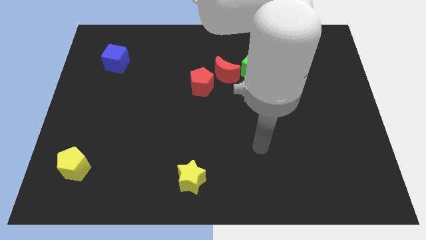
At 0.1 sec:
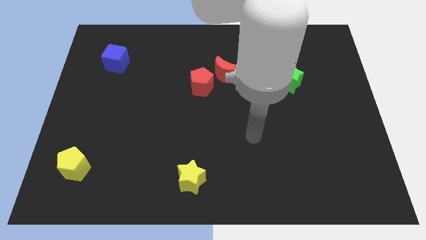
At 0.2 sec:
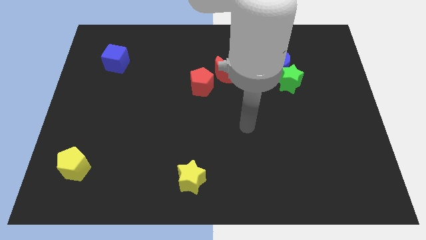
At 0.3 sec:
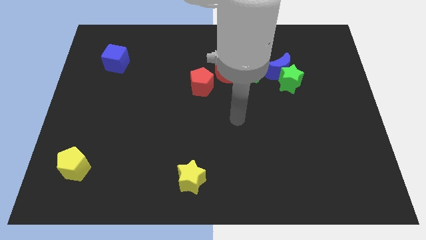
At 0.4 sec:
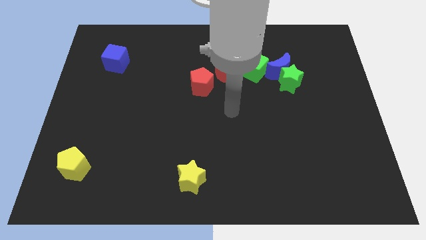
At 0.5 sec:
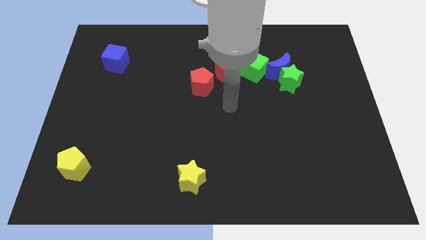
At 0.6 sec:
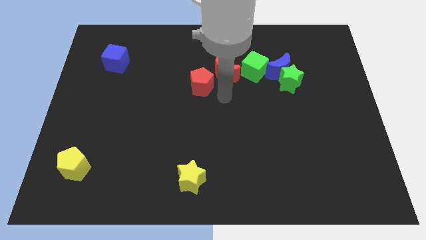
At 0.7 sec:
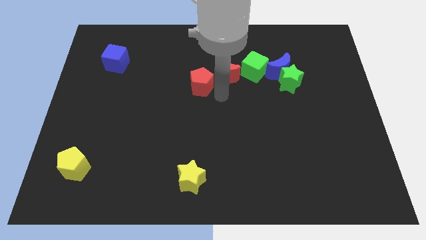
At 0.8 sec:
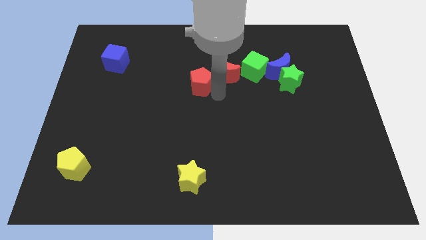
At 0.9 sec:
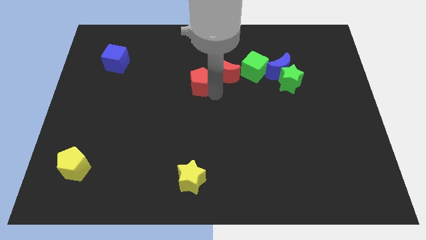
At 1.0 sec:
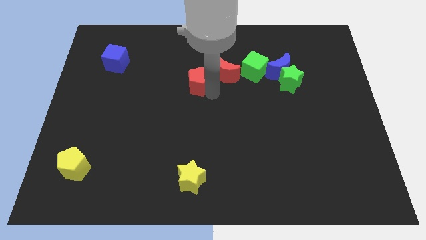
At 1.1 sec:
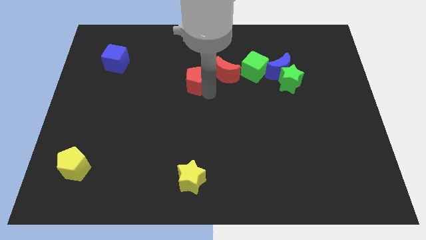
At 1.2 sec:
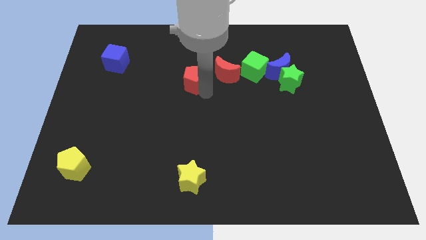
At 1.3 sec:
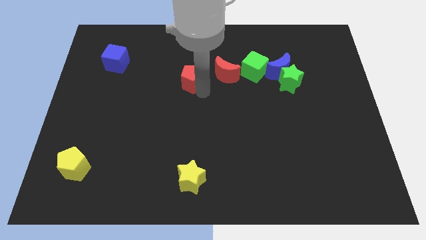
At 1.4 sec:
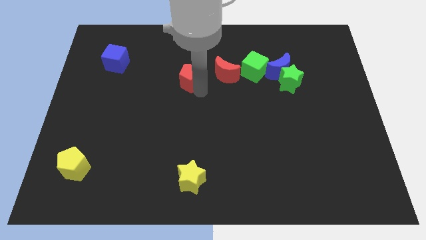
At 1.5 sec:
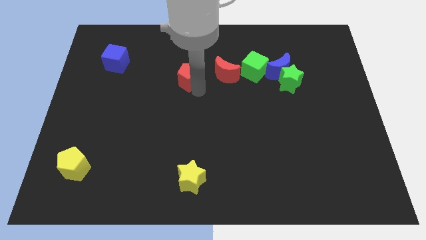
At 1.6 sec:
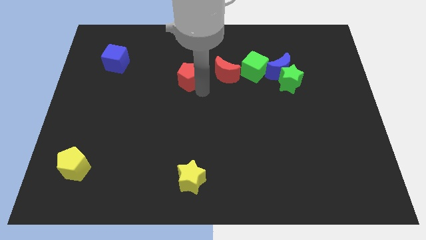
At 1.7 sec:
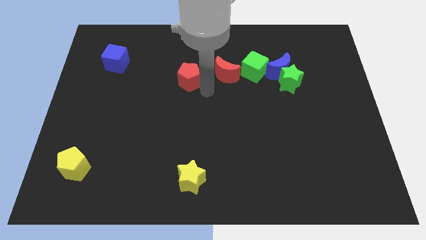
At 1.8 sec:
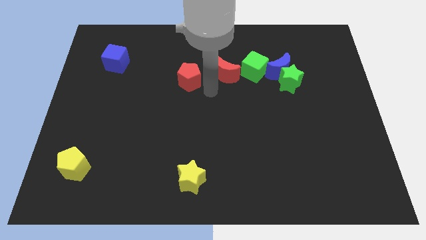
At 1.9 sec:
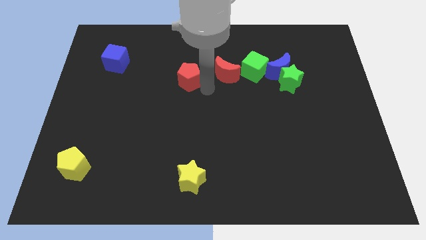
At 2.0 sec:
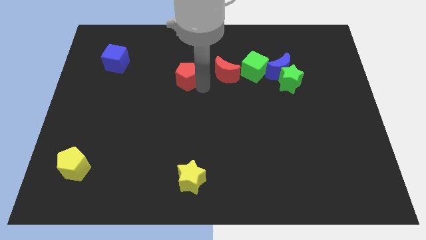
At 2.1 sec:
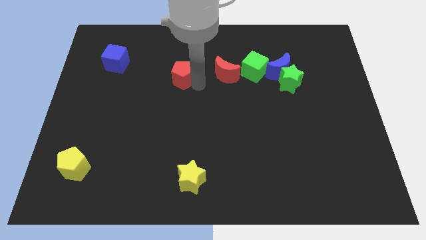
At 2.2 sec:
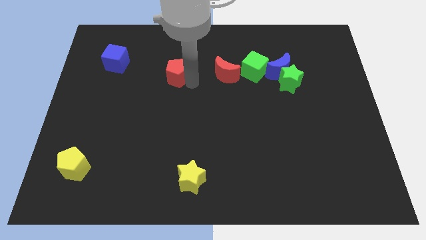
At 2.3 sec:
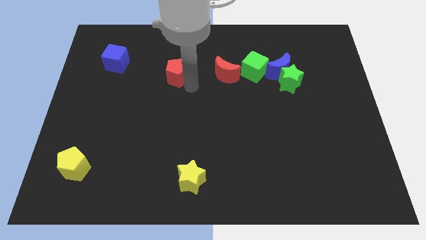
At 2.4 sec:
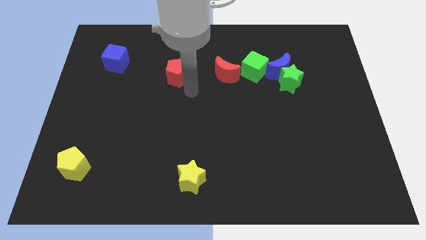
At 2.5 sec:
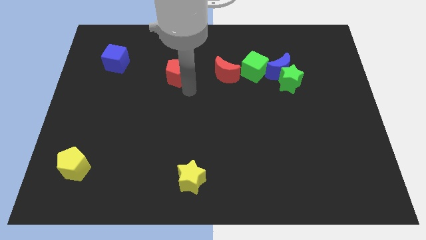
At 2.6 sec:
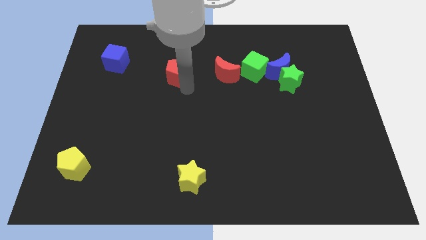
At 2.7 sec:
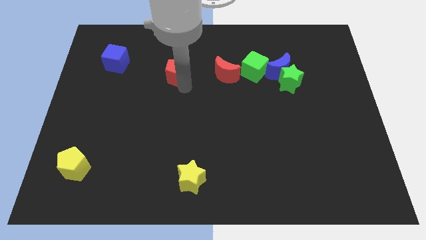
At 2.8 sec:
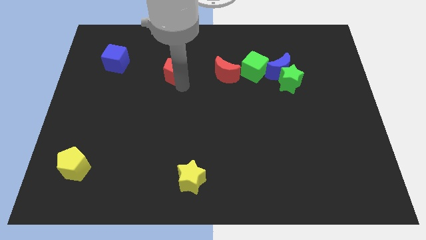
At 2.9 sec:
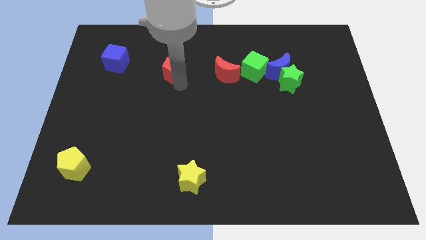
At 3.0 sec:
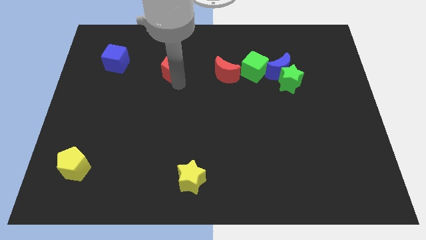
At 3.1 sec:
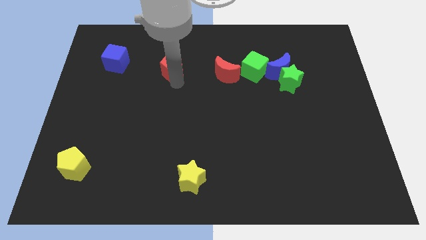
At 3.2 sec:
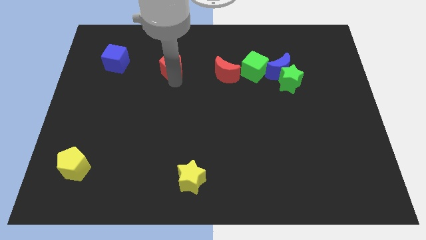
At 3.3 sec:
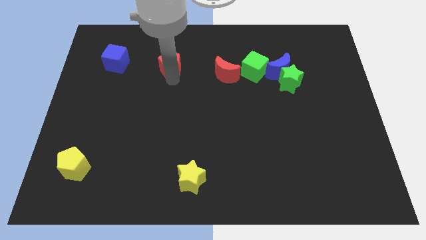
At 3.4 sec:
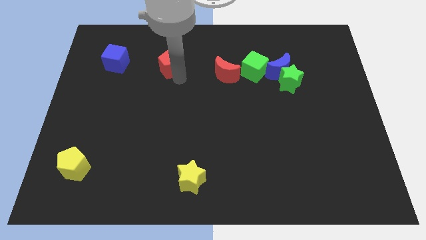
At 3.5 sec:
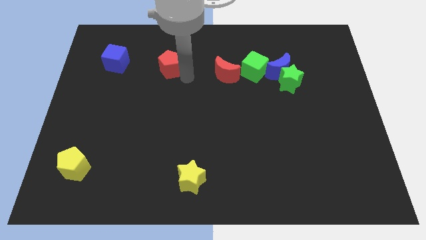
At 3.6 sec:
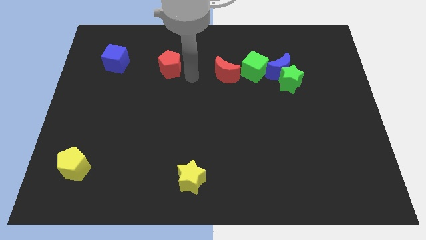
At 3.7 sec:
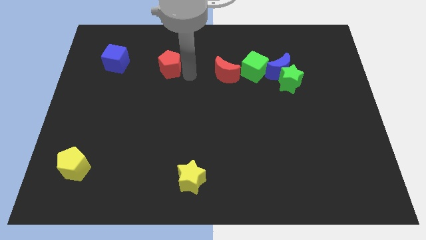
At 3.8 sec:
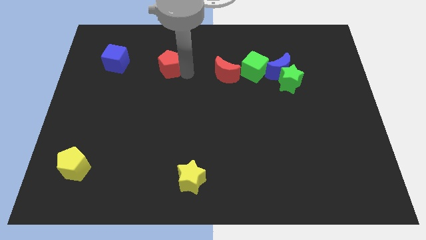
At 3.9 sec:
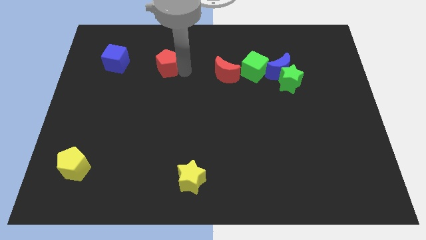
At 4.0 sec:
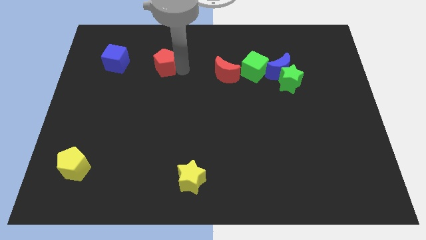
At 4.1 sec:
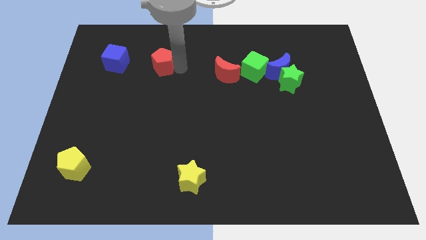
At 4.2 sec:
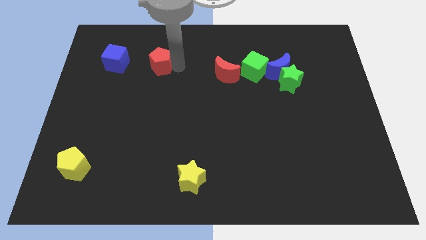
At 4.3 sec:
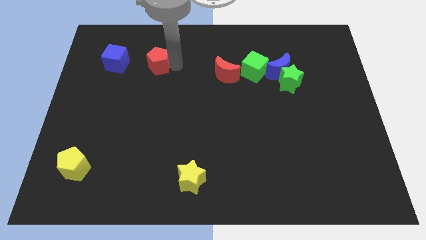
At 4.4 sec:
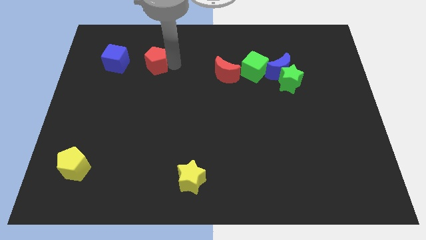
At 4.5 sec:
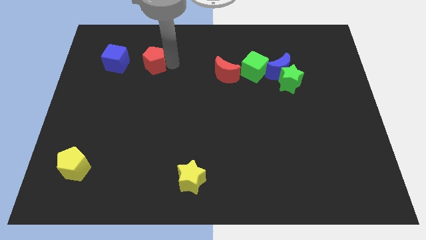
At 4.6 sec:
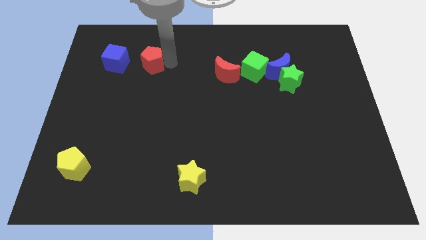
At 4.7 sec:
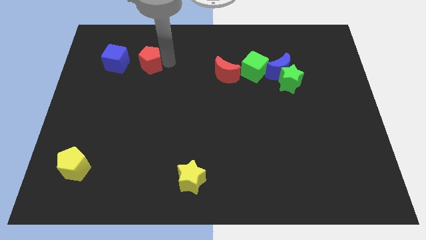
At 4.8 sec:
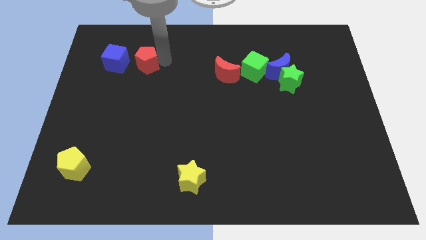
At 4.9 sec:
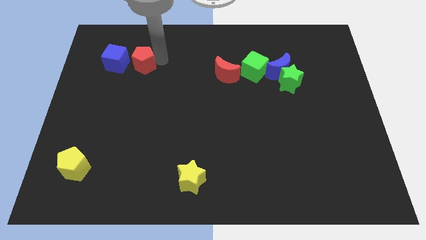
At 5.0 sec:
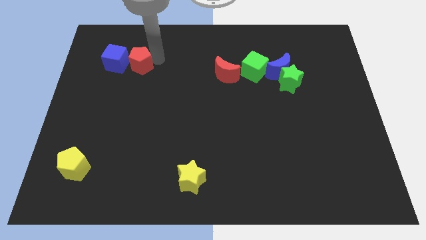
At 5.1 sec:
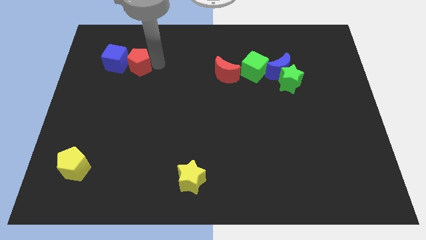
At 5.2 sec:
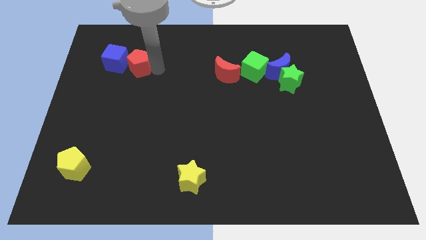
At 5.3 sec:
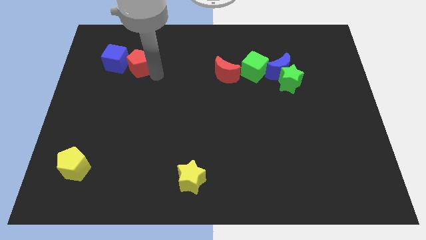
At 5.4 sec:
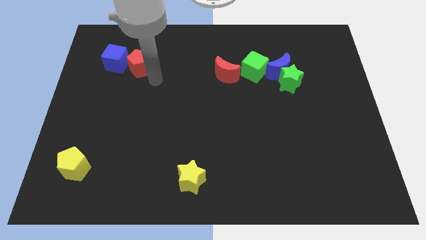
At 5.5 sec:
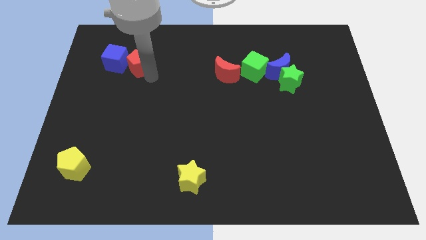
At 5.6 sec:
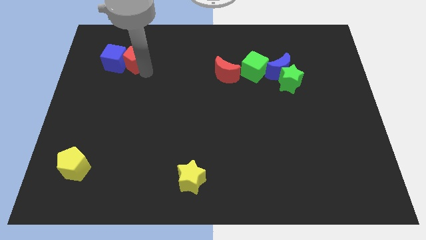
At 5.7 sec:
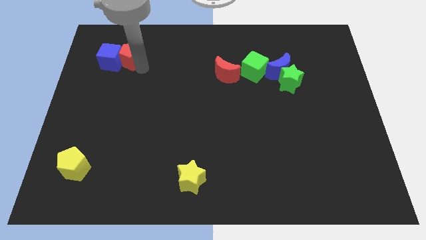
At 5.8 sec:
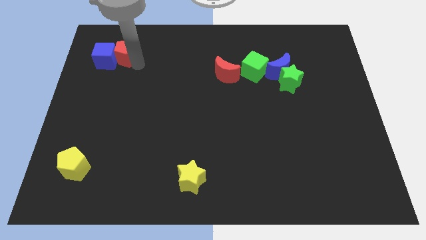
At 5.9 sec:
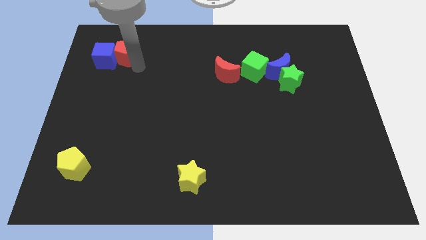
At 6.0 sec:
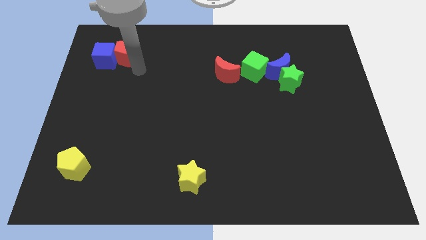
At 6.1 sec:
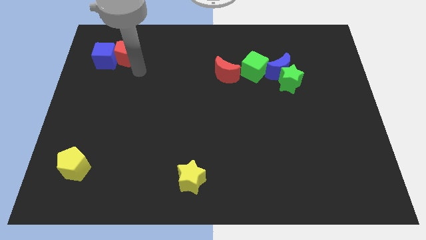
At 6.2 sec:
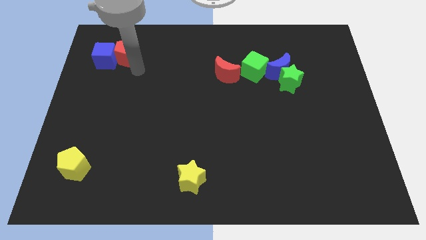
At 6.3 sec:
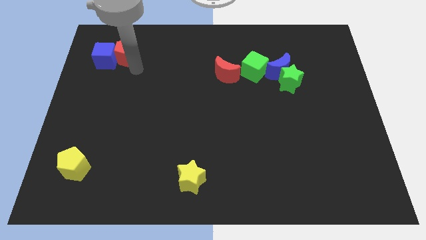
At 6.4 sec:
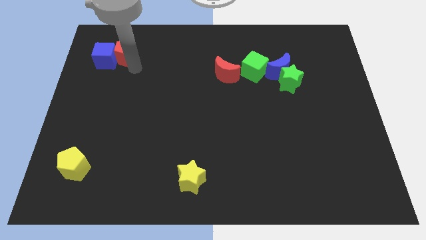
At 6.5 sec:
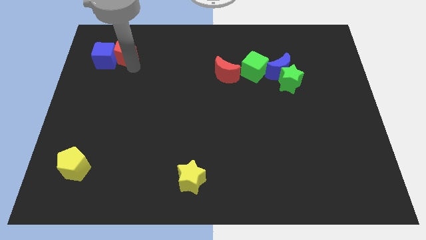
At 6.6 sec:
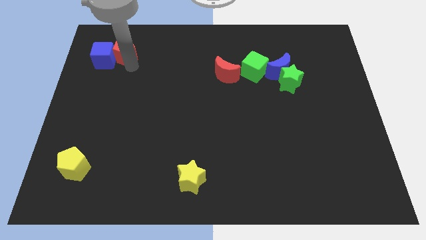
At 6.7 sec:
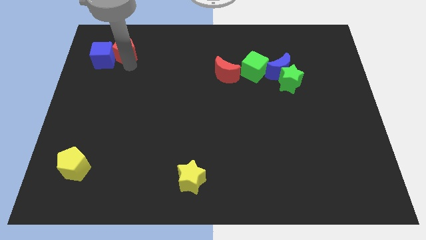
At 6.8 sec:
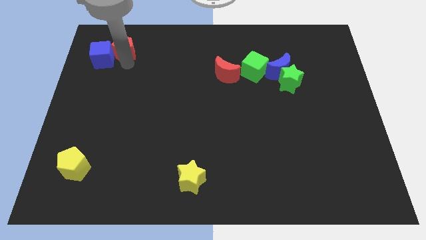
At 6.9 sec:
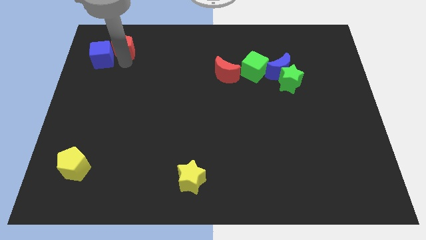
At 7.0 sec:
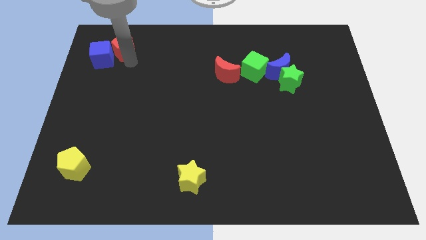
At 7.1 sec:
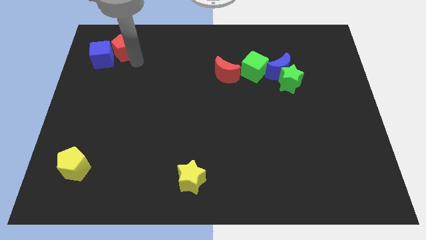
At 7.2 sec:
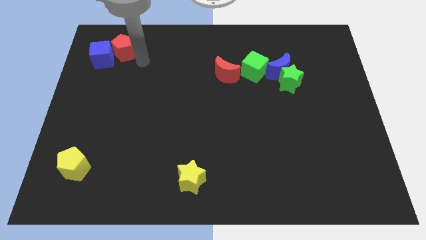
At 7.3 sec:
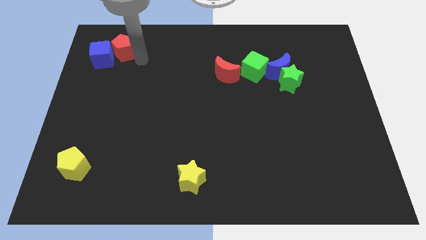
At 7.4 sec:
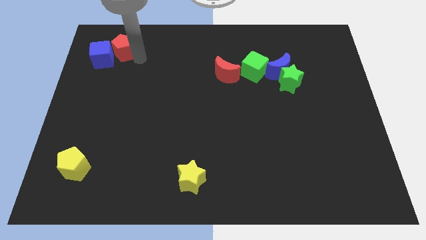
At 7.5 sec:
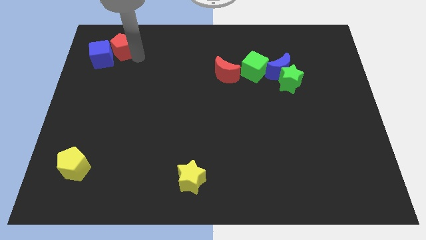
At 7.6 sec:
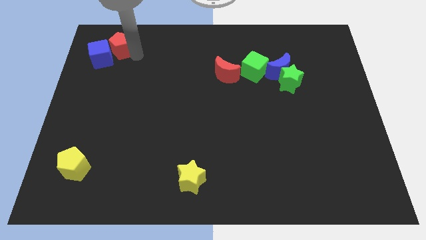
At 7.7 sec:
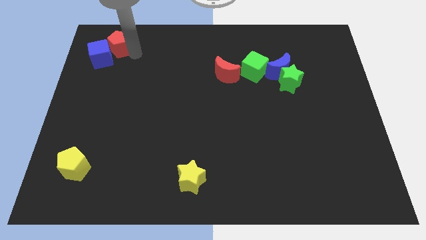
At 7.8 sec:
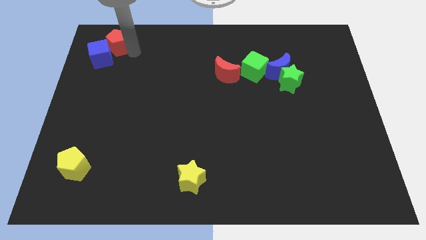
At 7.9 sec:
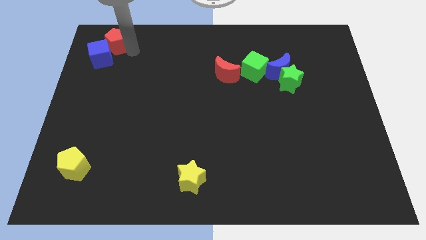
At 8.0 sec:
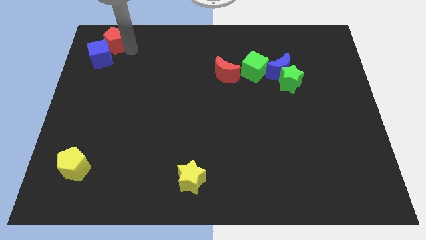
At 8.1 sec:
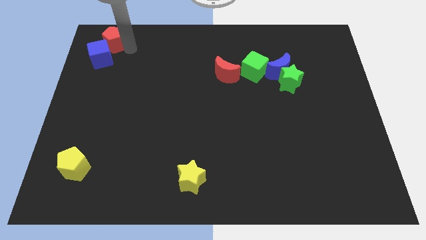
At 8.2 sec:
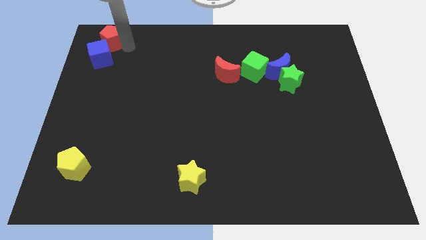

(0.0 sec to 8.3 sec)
move the red pentagon to the top left corner
